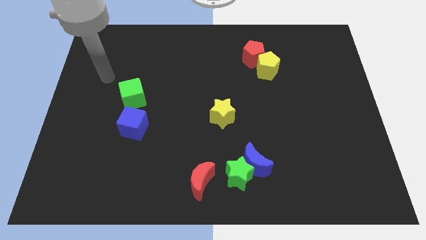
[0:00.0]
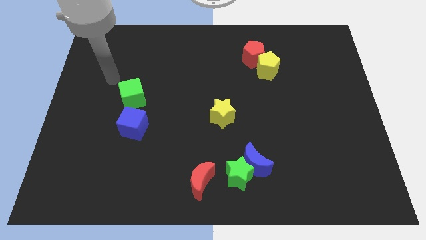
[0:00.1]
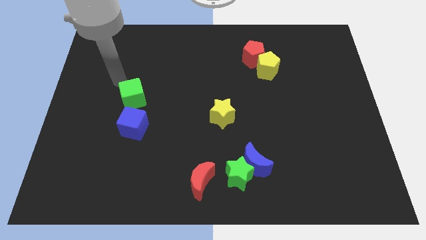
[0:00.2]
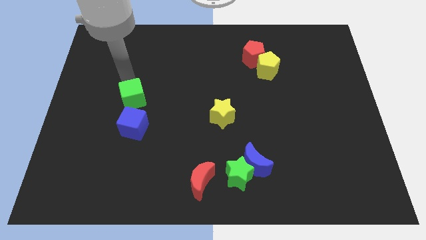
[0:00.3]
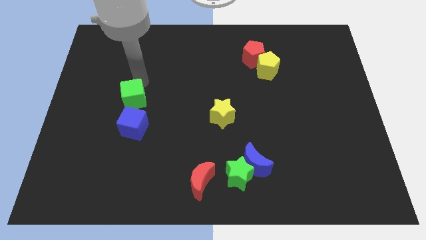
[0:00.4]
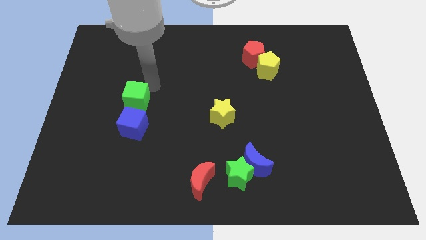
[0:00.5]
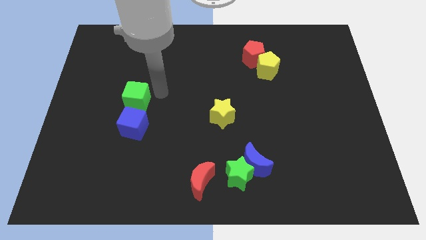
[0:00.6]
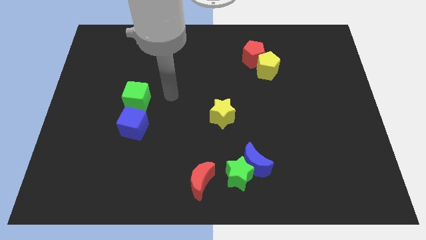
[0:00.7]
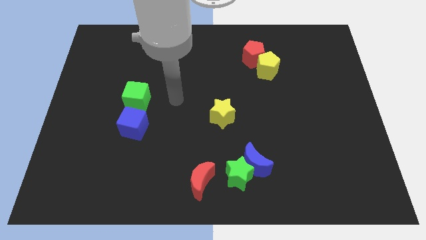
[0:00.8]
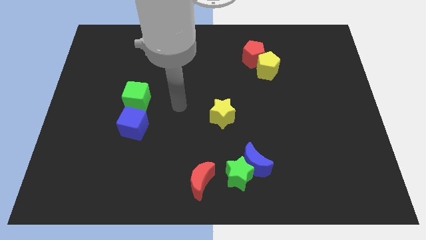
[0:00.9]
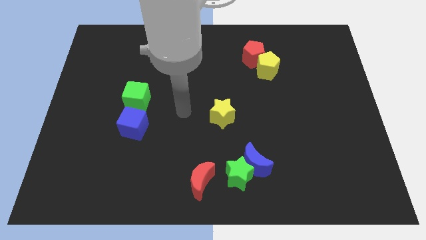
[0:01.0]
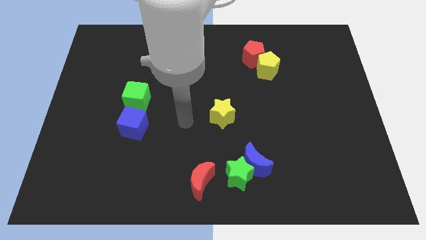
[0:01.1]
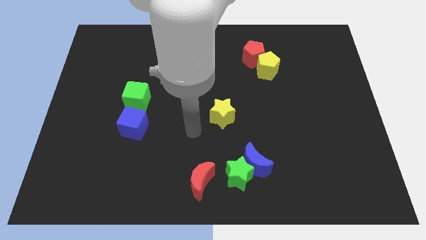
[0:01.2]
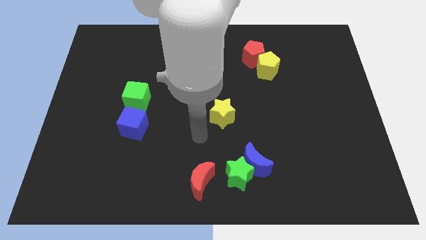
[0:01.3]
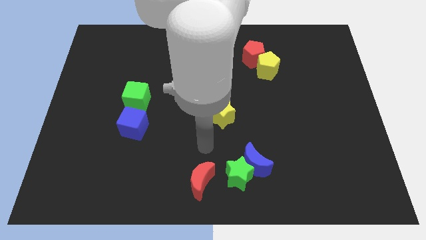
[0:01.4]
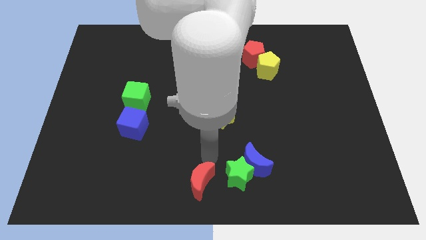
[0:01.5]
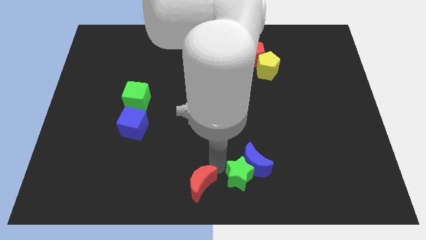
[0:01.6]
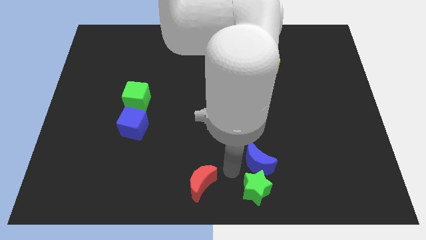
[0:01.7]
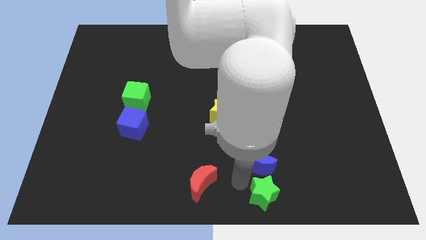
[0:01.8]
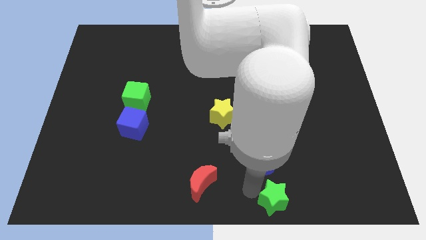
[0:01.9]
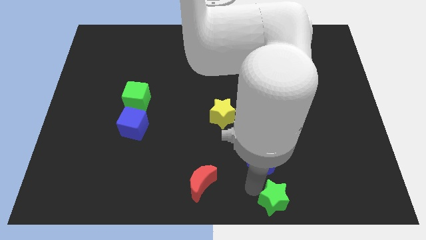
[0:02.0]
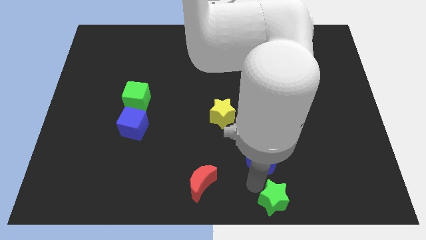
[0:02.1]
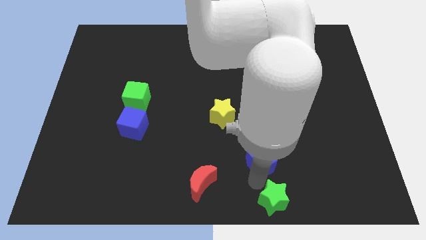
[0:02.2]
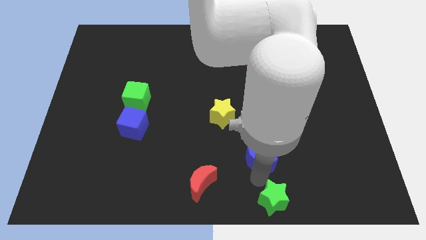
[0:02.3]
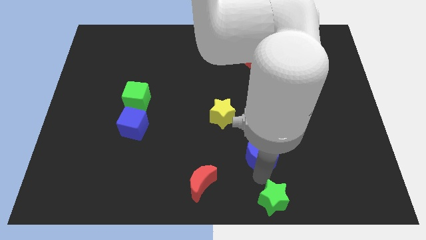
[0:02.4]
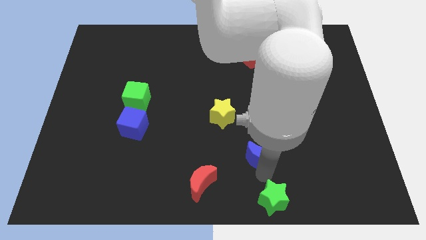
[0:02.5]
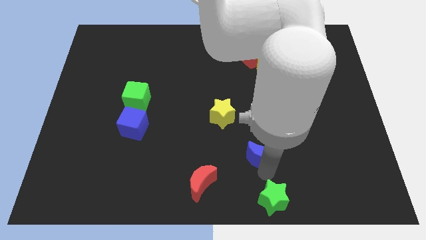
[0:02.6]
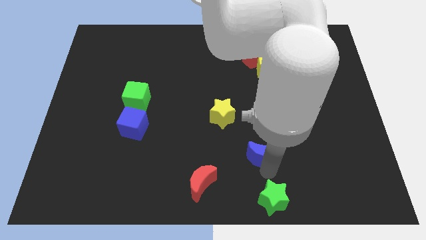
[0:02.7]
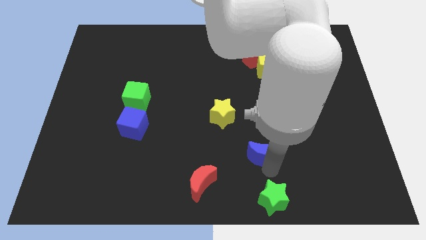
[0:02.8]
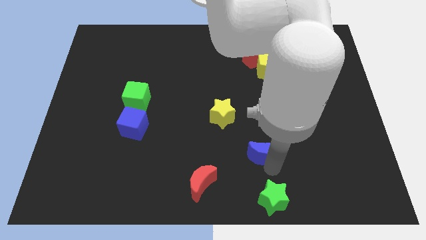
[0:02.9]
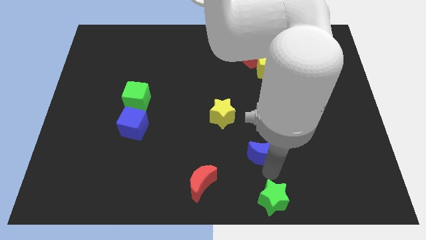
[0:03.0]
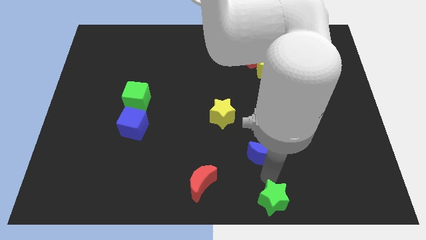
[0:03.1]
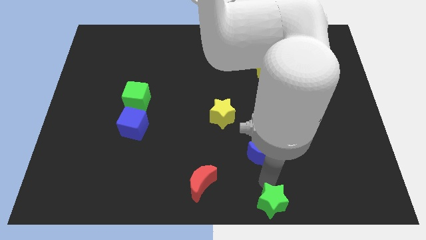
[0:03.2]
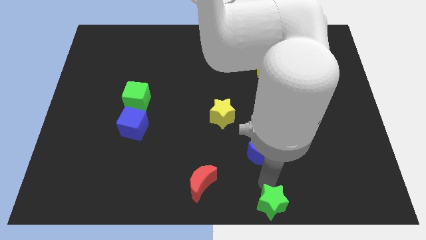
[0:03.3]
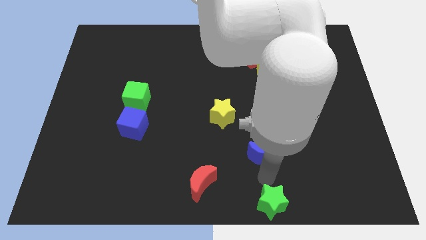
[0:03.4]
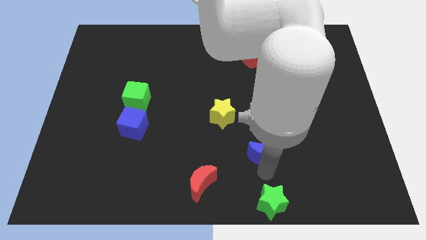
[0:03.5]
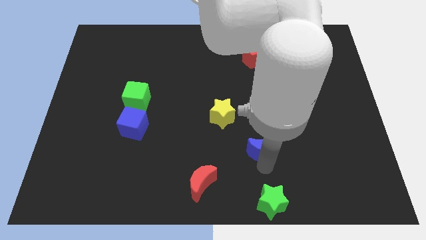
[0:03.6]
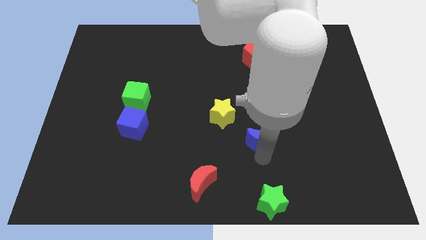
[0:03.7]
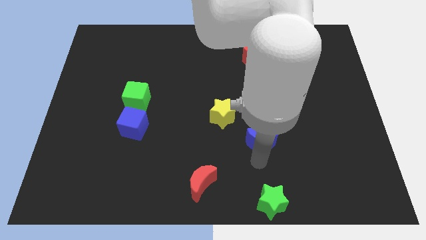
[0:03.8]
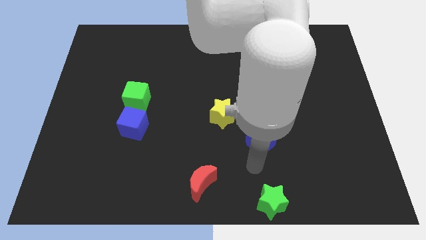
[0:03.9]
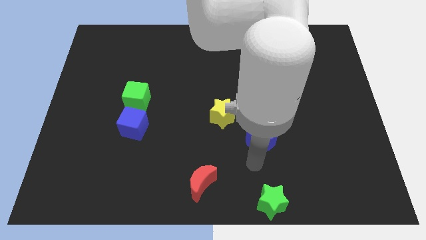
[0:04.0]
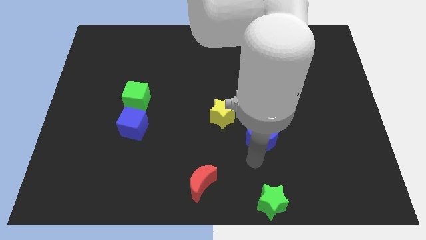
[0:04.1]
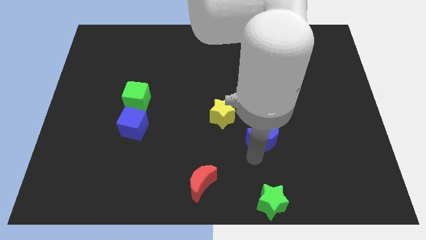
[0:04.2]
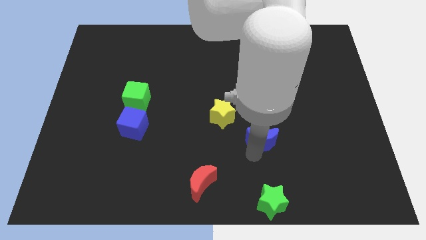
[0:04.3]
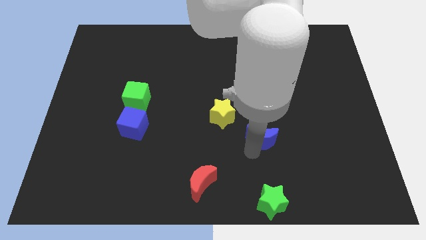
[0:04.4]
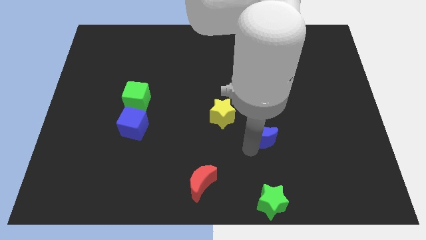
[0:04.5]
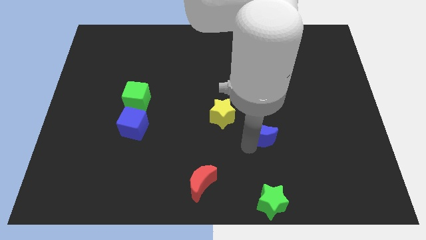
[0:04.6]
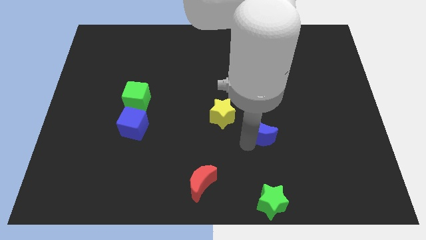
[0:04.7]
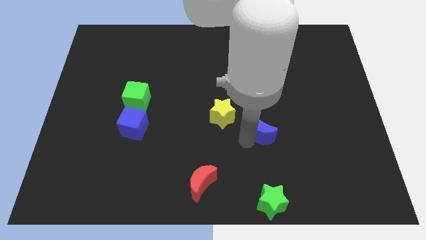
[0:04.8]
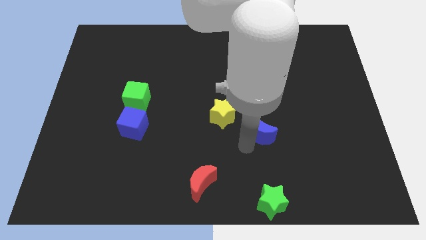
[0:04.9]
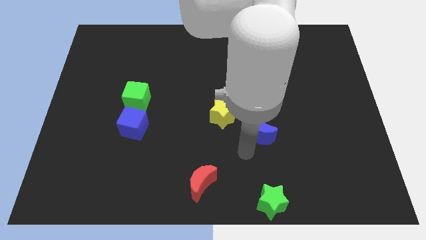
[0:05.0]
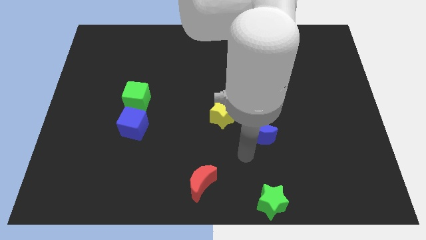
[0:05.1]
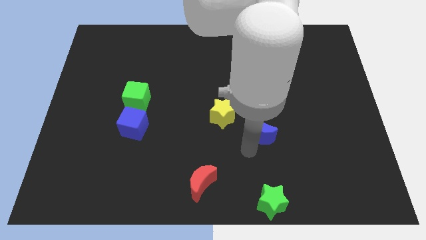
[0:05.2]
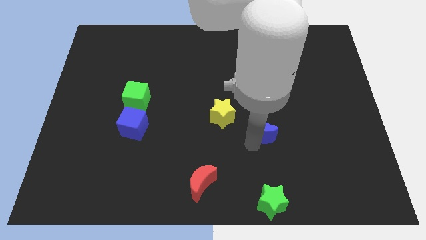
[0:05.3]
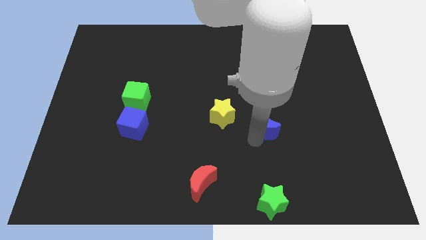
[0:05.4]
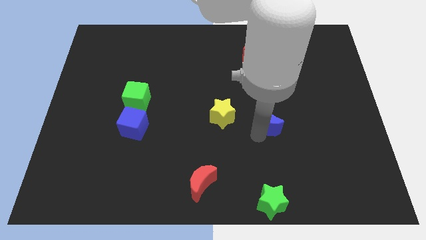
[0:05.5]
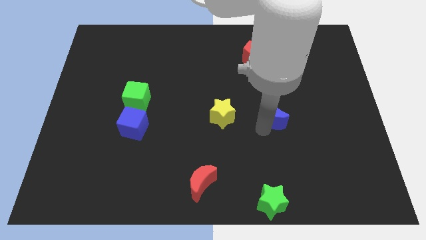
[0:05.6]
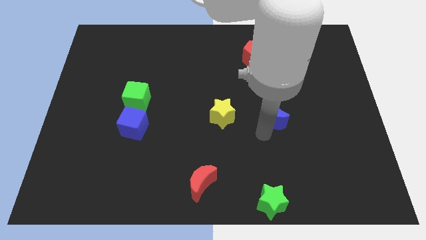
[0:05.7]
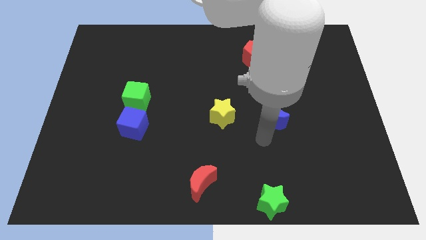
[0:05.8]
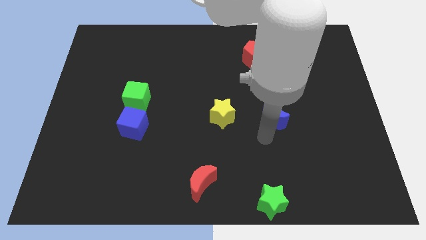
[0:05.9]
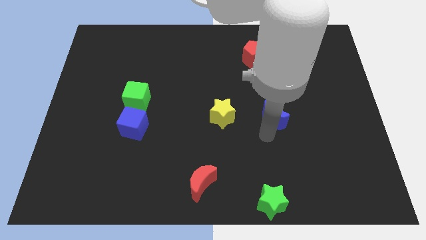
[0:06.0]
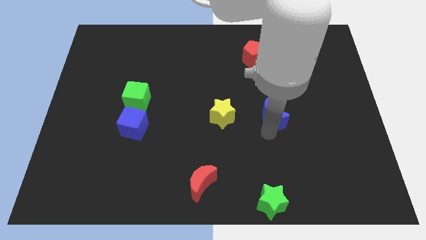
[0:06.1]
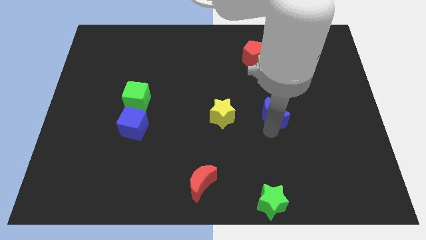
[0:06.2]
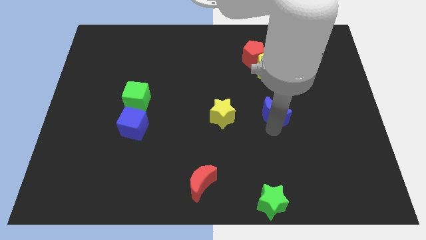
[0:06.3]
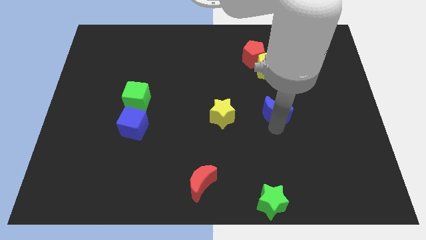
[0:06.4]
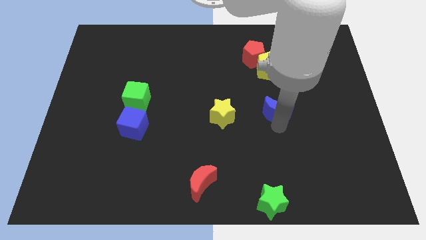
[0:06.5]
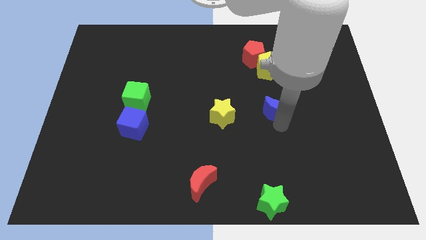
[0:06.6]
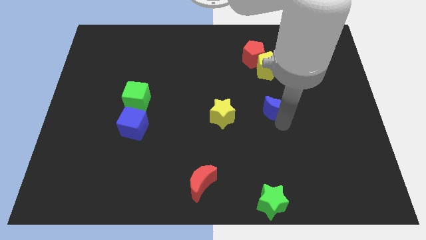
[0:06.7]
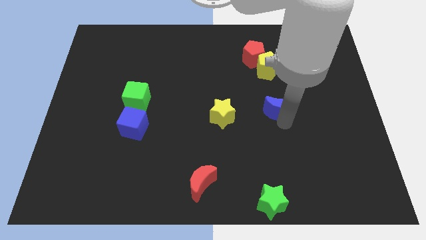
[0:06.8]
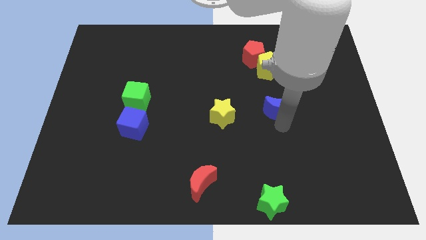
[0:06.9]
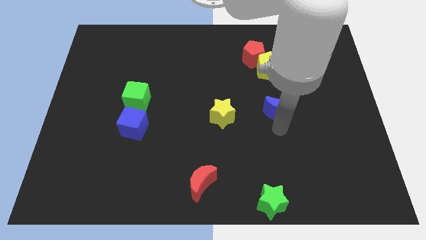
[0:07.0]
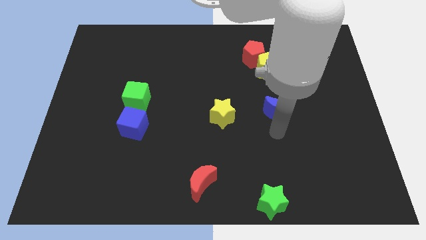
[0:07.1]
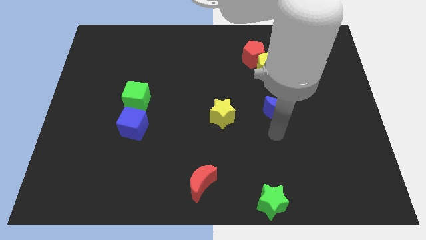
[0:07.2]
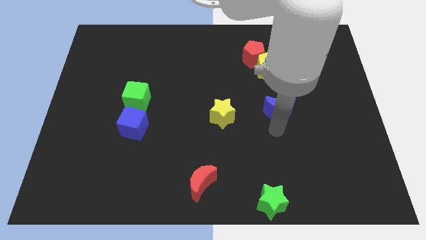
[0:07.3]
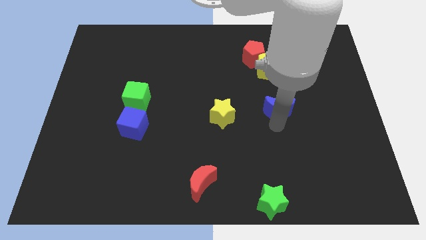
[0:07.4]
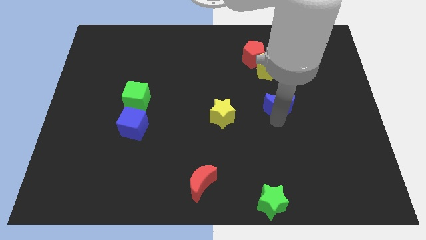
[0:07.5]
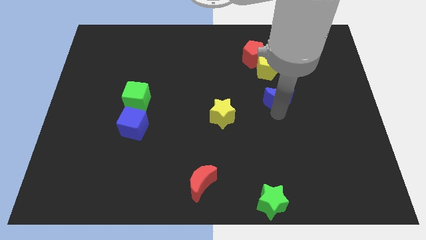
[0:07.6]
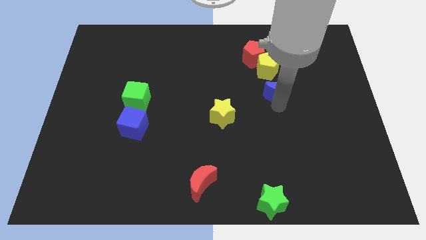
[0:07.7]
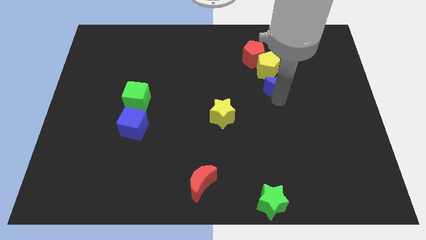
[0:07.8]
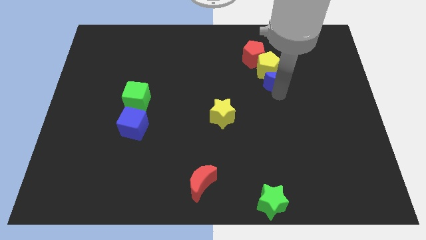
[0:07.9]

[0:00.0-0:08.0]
slide the blue moon diagonally down and to the right of the red pentagon
